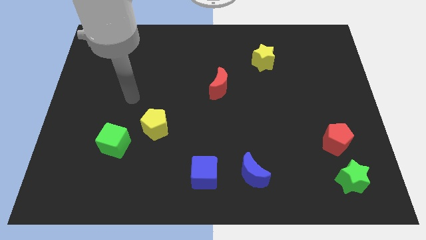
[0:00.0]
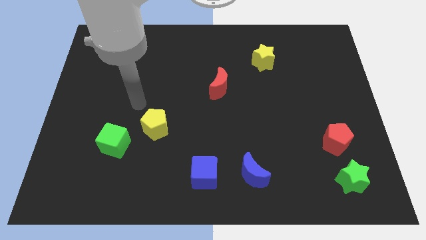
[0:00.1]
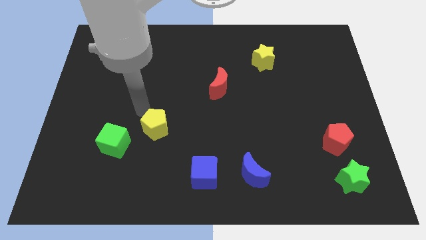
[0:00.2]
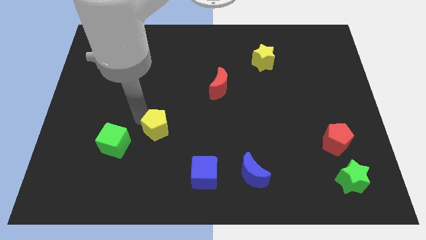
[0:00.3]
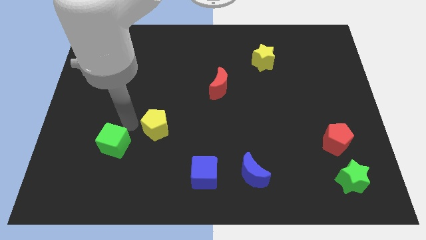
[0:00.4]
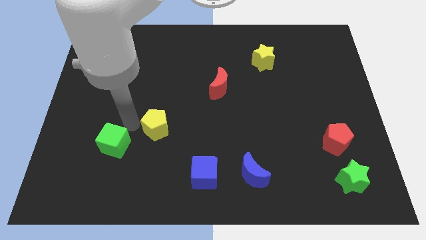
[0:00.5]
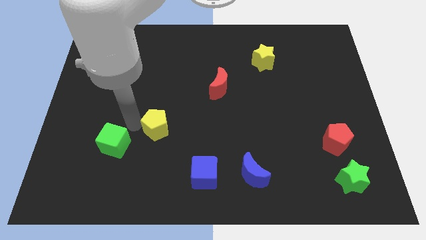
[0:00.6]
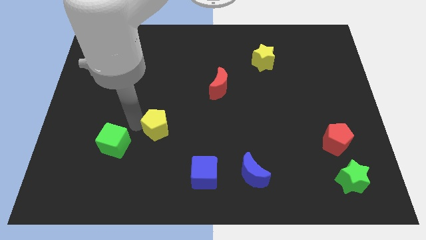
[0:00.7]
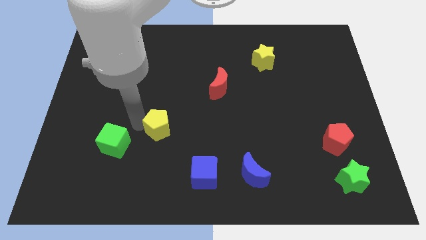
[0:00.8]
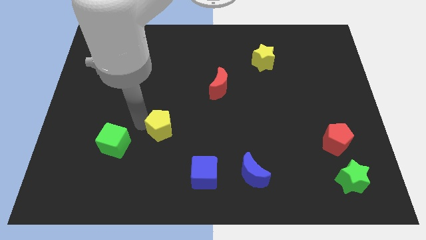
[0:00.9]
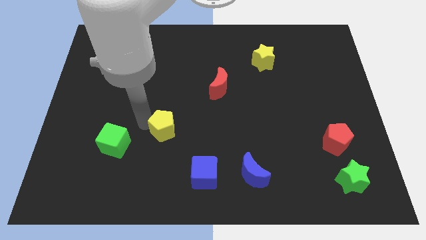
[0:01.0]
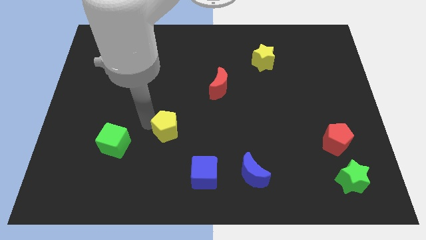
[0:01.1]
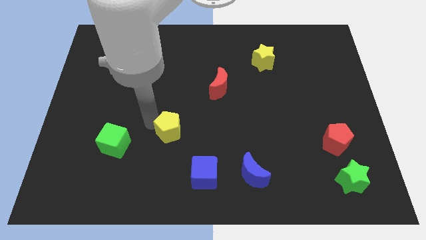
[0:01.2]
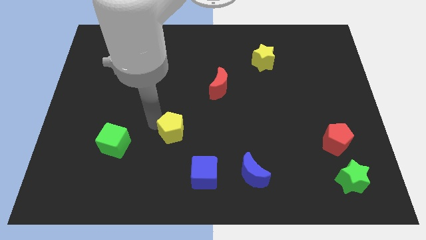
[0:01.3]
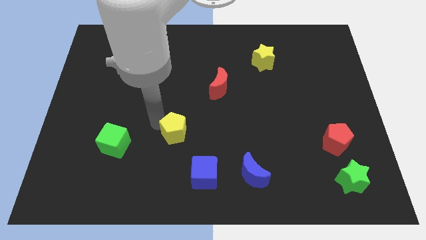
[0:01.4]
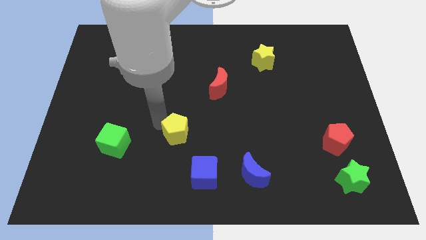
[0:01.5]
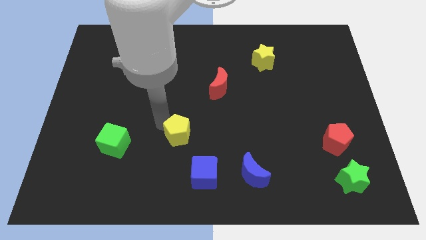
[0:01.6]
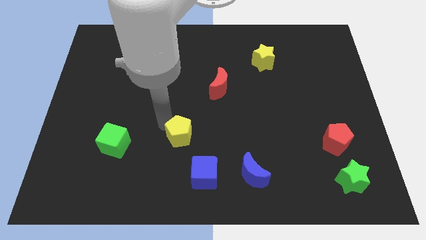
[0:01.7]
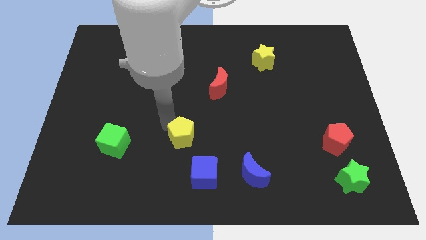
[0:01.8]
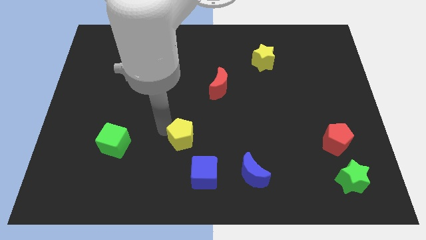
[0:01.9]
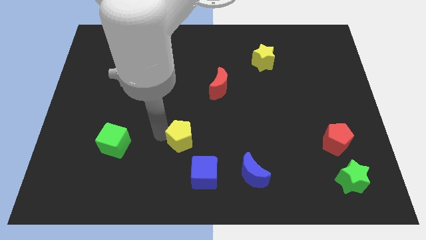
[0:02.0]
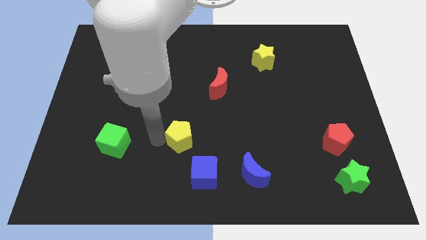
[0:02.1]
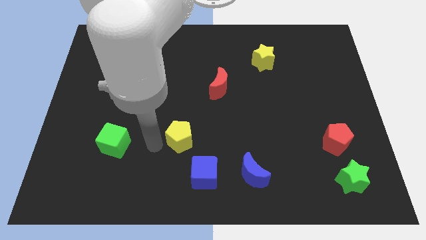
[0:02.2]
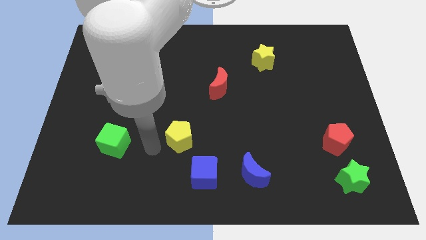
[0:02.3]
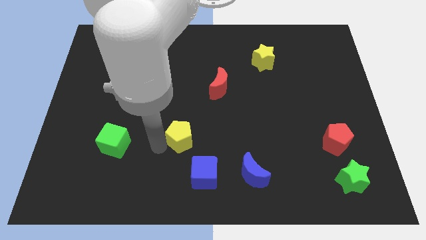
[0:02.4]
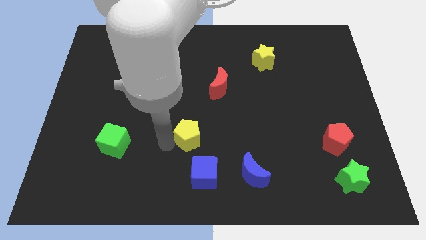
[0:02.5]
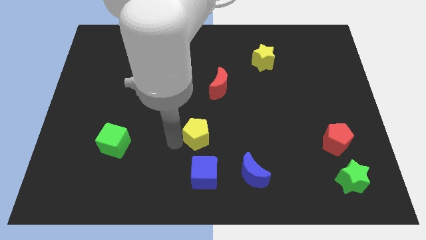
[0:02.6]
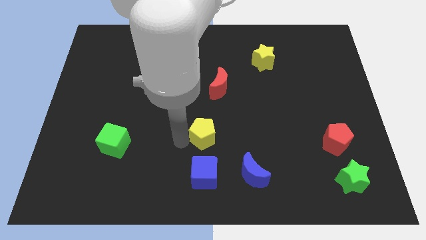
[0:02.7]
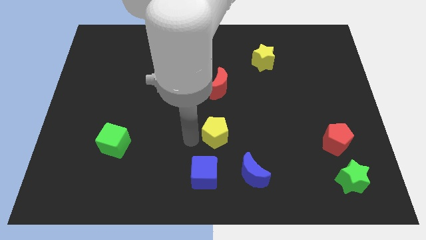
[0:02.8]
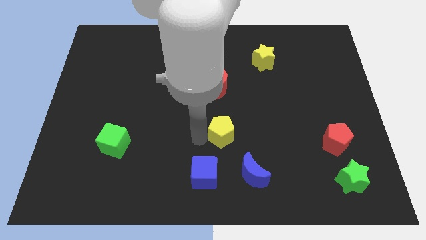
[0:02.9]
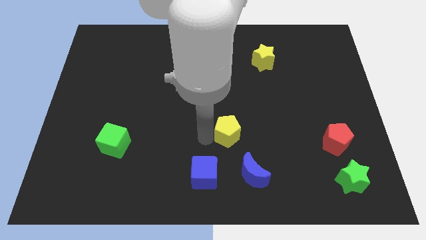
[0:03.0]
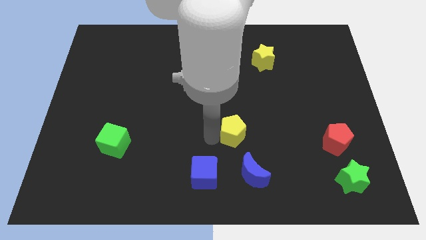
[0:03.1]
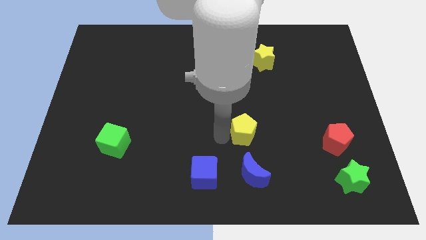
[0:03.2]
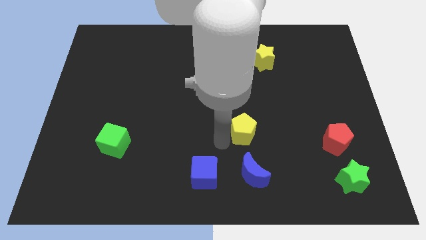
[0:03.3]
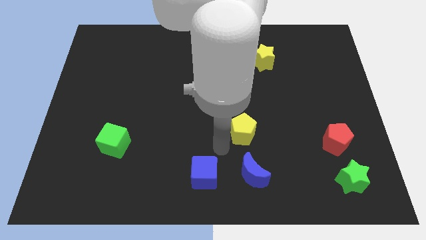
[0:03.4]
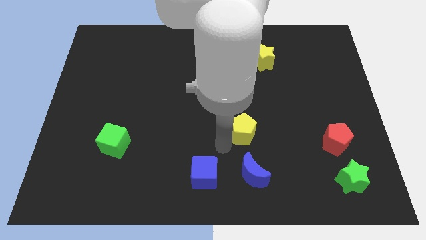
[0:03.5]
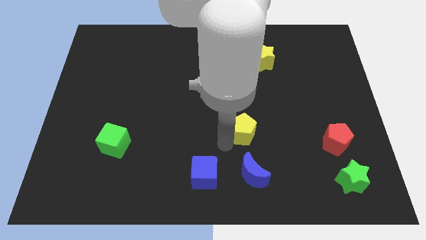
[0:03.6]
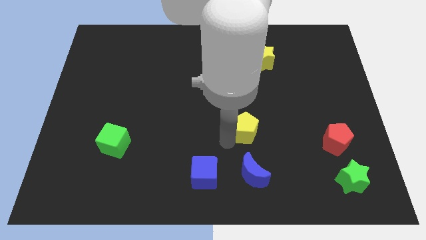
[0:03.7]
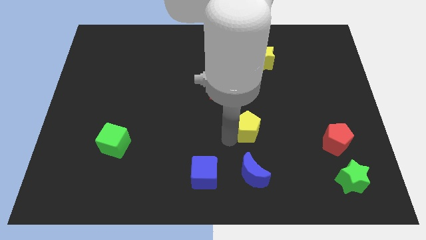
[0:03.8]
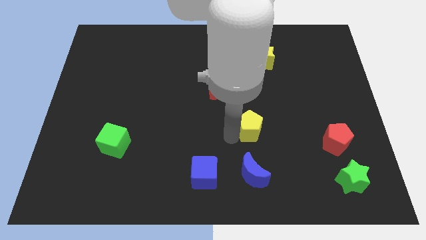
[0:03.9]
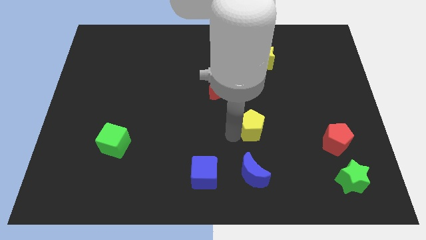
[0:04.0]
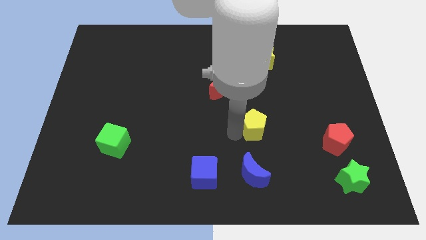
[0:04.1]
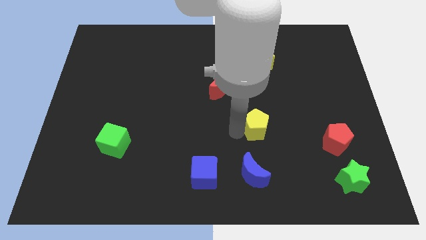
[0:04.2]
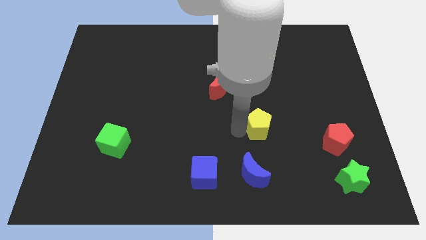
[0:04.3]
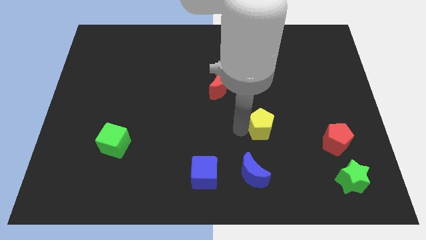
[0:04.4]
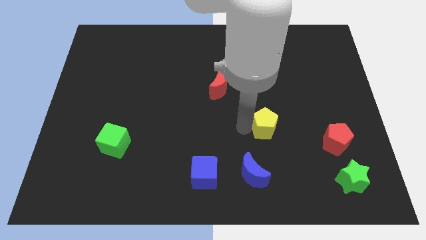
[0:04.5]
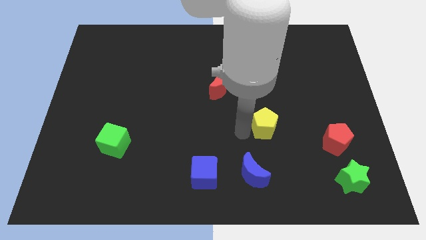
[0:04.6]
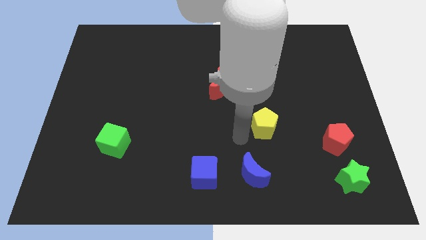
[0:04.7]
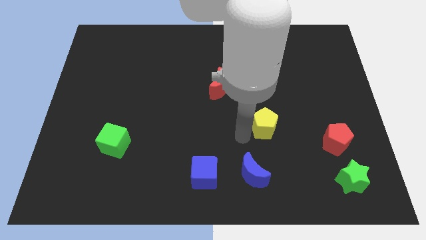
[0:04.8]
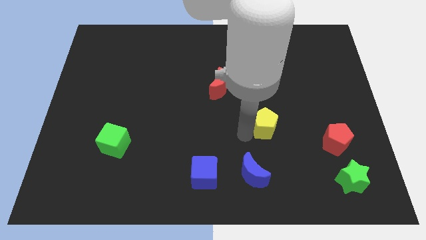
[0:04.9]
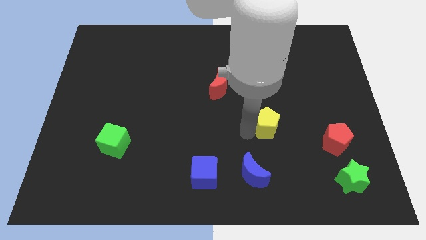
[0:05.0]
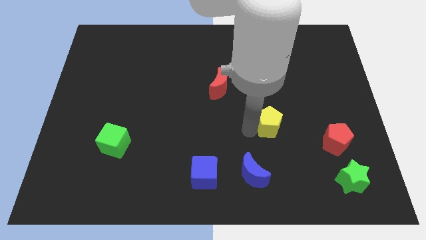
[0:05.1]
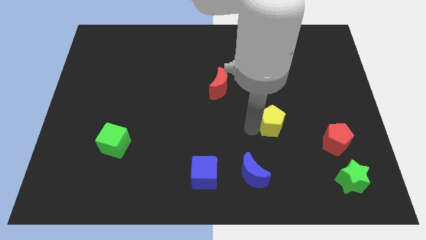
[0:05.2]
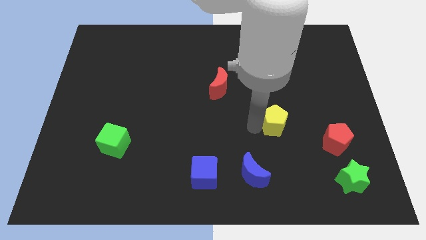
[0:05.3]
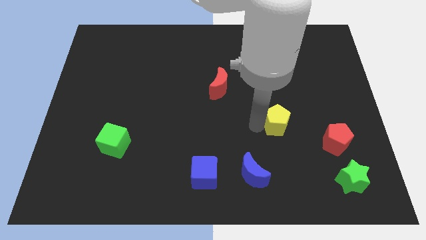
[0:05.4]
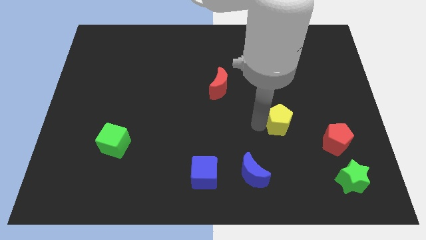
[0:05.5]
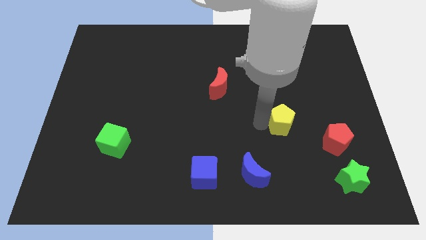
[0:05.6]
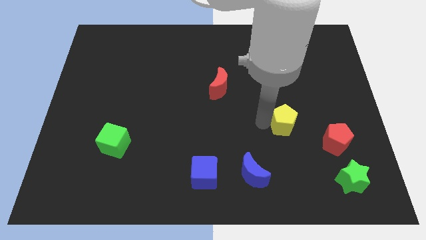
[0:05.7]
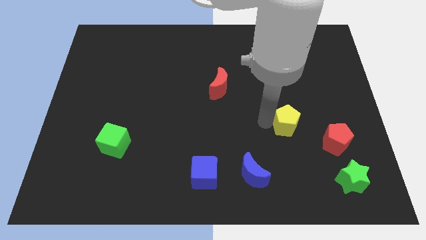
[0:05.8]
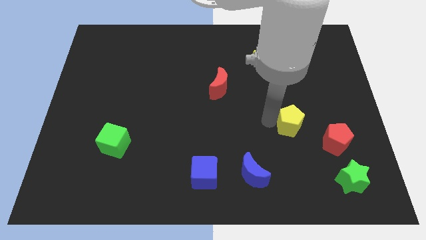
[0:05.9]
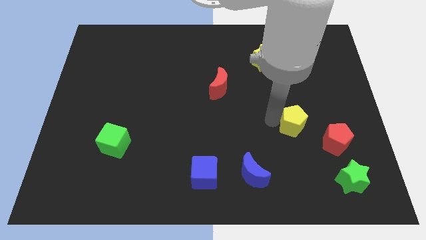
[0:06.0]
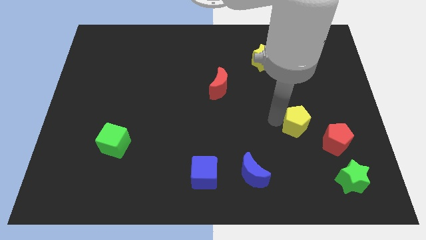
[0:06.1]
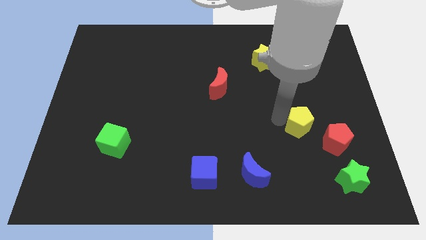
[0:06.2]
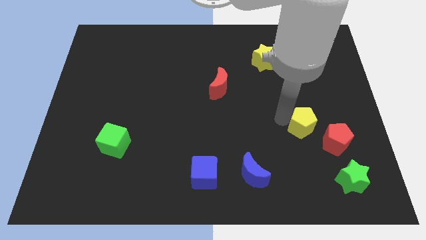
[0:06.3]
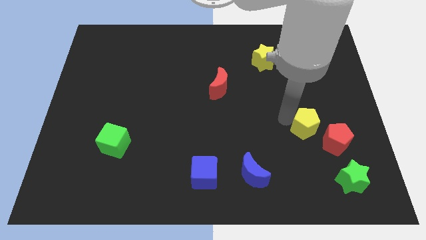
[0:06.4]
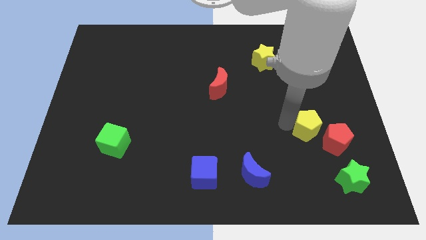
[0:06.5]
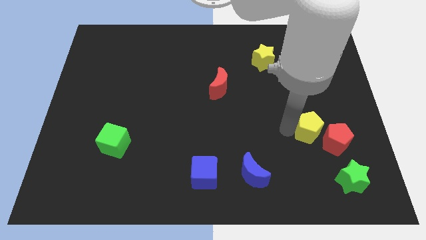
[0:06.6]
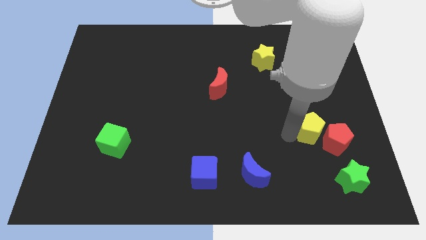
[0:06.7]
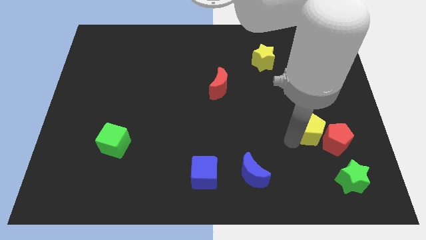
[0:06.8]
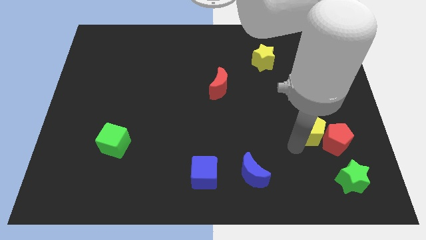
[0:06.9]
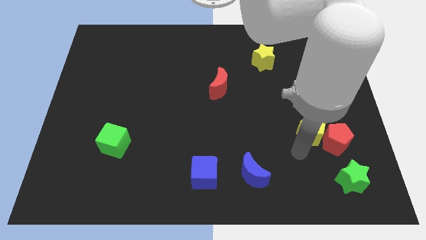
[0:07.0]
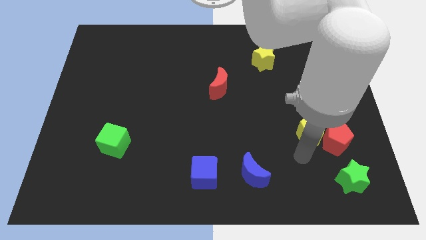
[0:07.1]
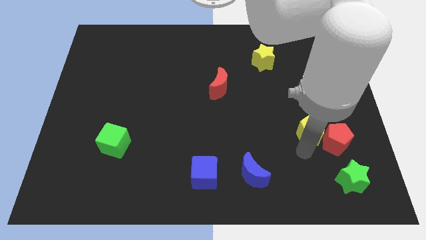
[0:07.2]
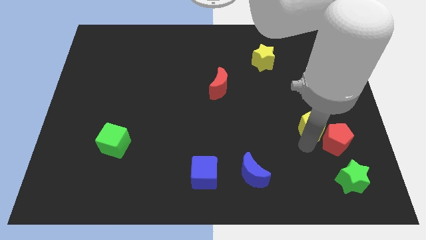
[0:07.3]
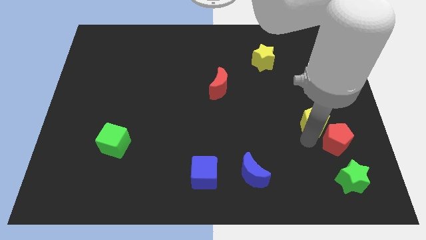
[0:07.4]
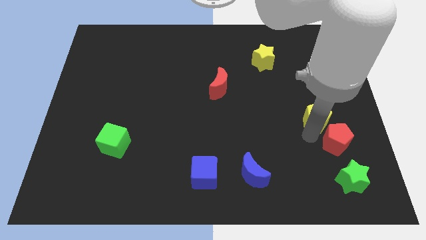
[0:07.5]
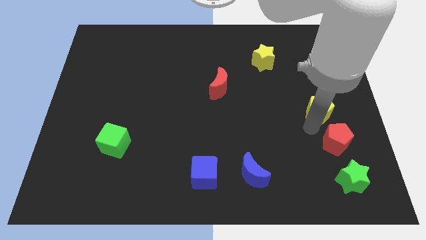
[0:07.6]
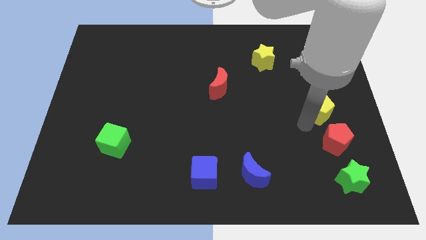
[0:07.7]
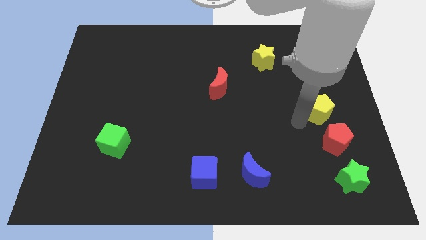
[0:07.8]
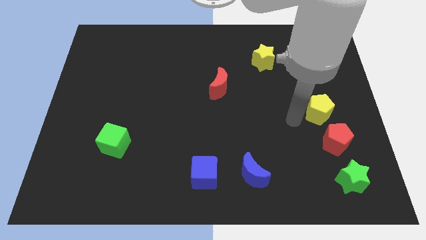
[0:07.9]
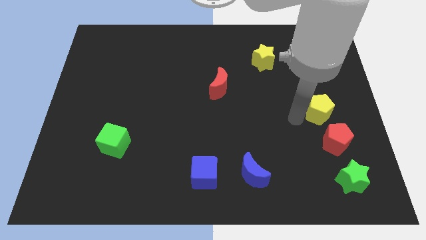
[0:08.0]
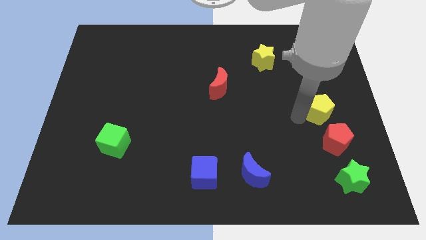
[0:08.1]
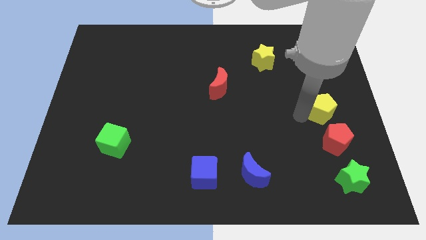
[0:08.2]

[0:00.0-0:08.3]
push the yellow pentagon to the right side
